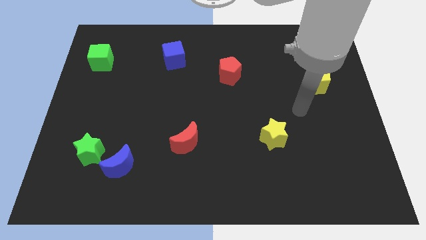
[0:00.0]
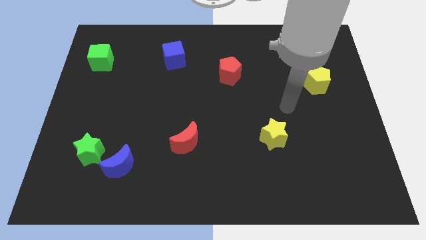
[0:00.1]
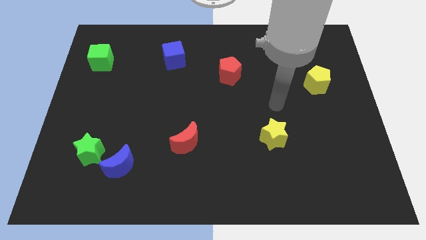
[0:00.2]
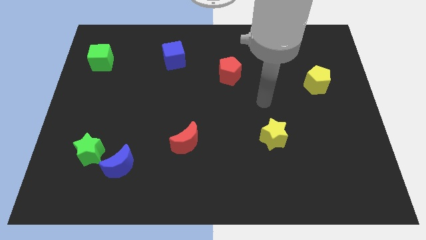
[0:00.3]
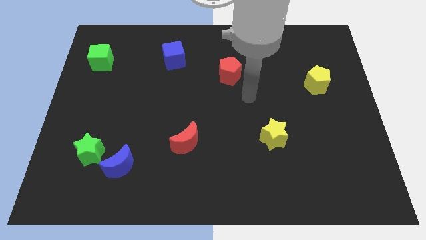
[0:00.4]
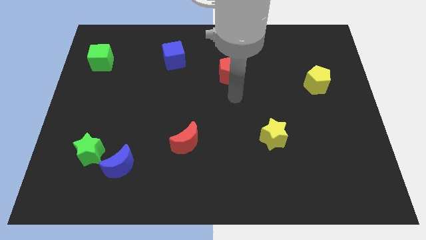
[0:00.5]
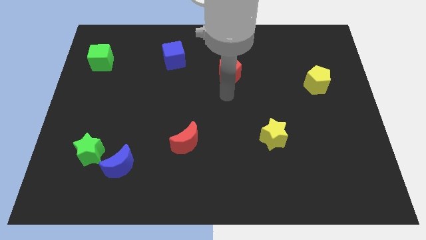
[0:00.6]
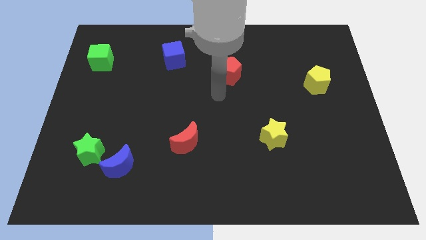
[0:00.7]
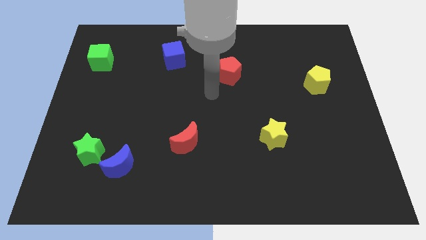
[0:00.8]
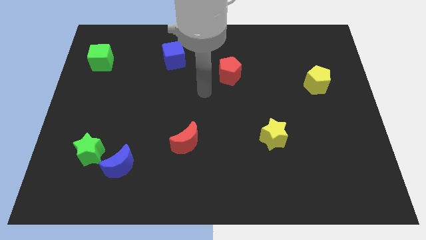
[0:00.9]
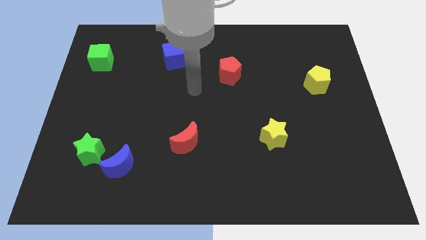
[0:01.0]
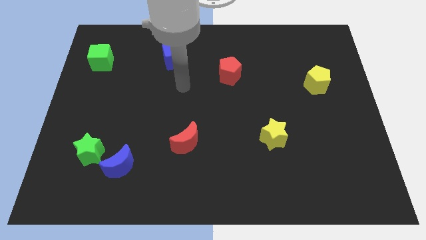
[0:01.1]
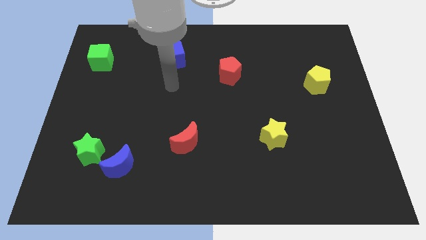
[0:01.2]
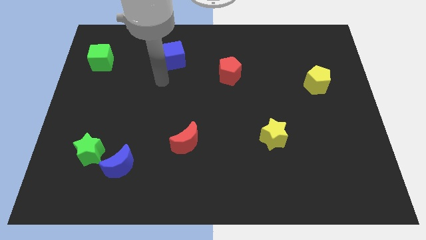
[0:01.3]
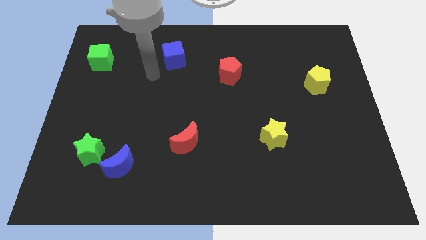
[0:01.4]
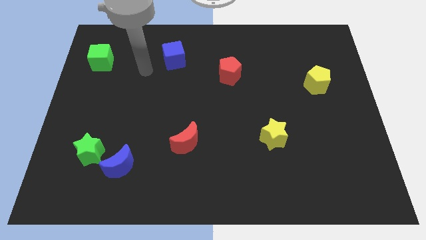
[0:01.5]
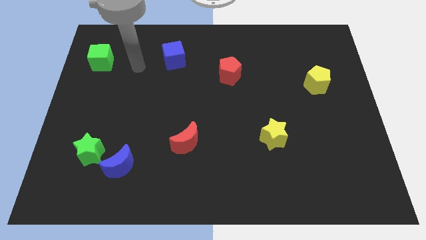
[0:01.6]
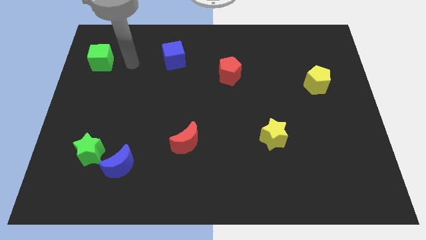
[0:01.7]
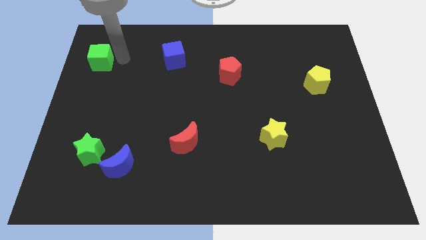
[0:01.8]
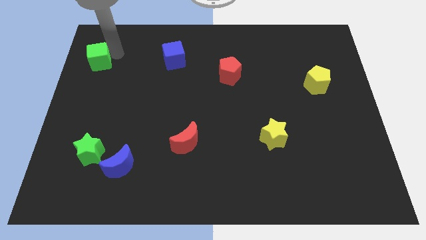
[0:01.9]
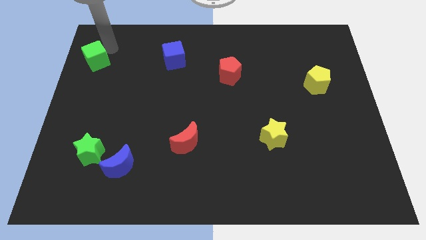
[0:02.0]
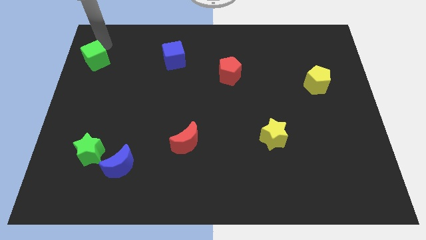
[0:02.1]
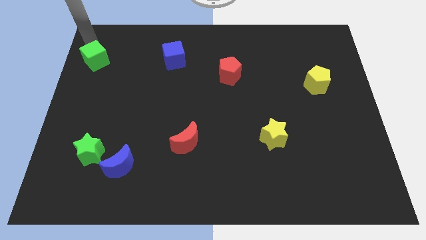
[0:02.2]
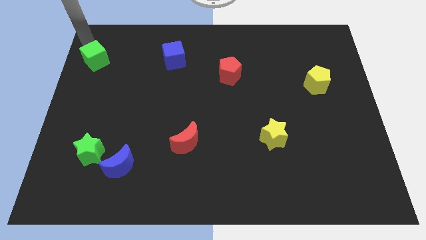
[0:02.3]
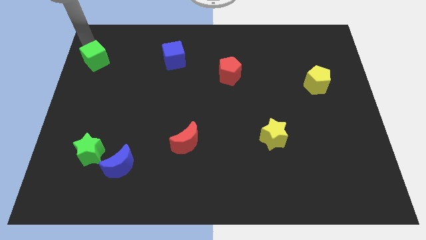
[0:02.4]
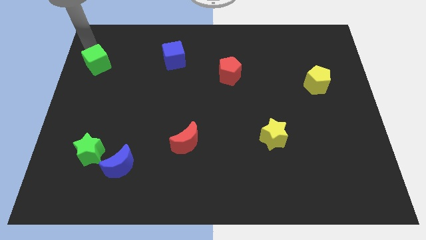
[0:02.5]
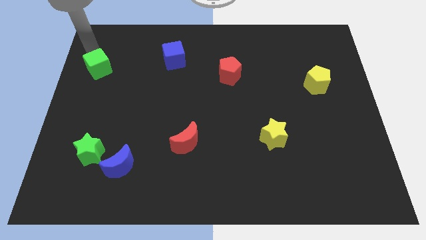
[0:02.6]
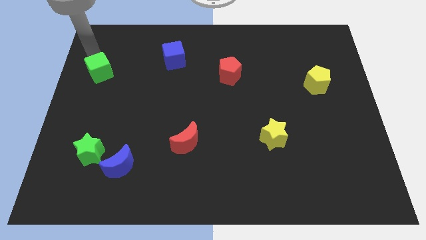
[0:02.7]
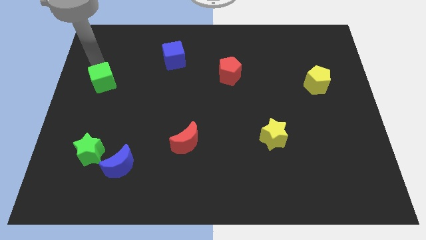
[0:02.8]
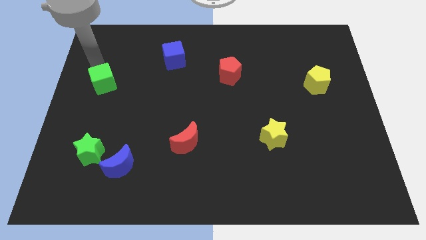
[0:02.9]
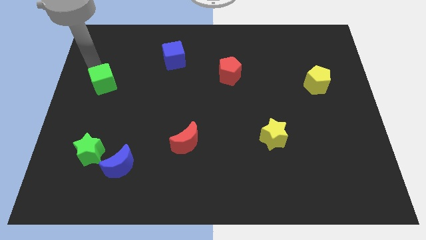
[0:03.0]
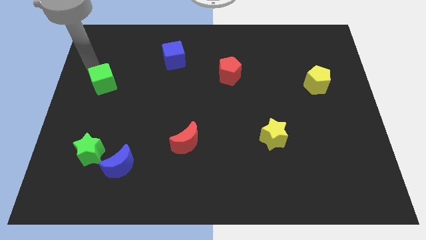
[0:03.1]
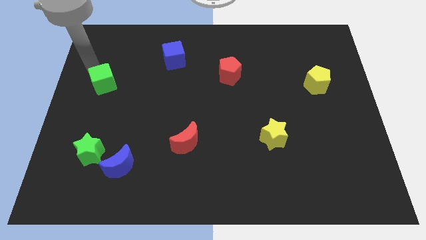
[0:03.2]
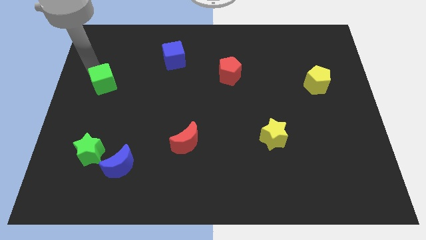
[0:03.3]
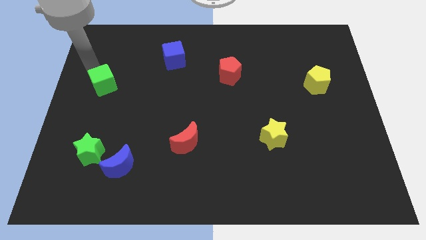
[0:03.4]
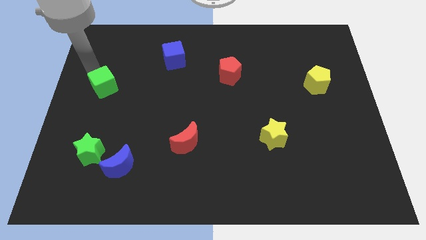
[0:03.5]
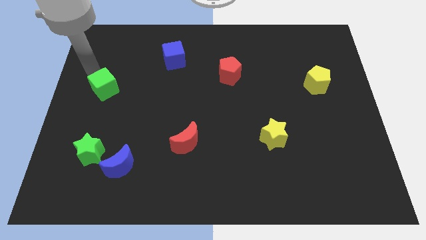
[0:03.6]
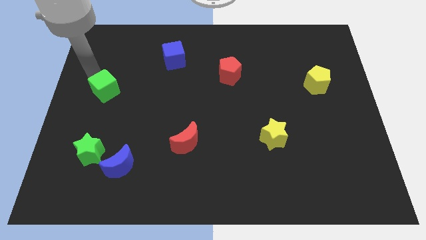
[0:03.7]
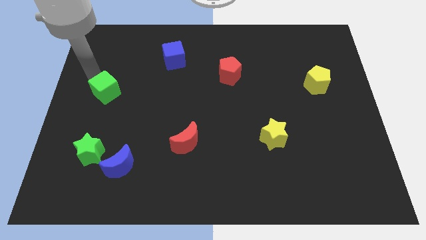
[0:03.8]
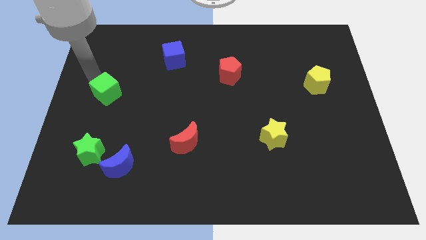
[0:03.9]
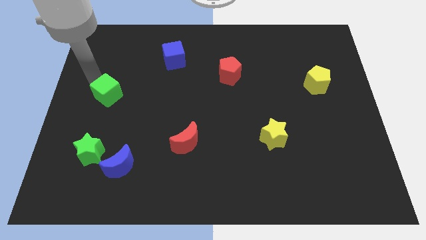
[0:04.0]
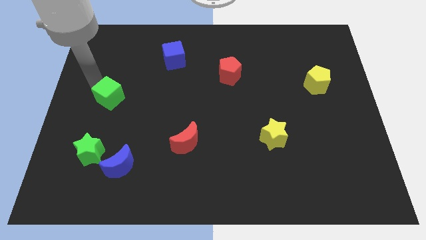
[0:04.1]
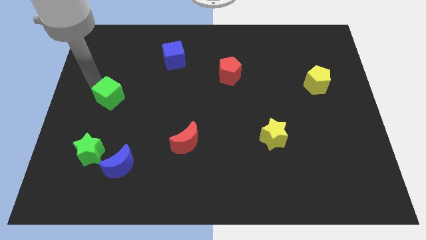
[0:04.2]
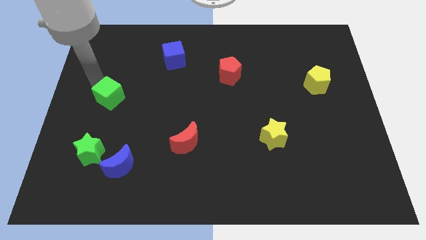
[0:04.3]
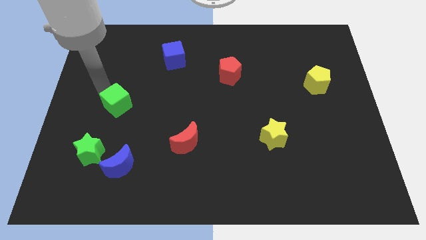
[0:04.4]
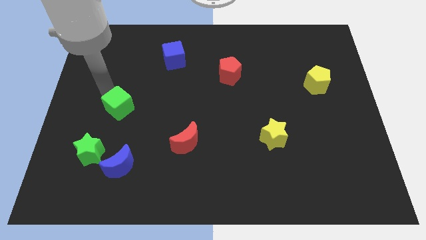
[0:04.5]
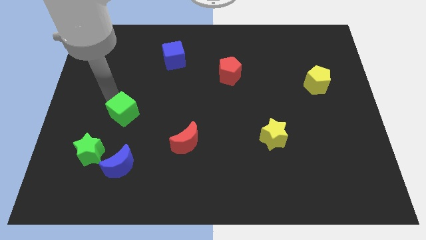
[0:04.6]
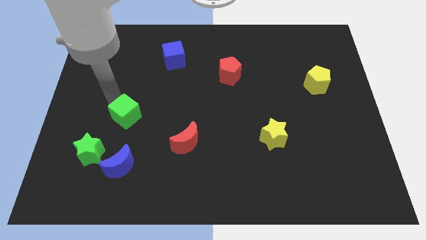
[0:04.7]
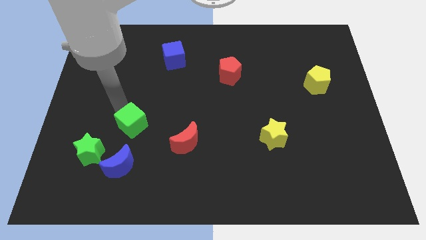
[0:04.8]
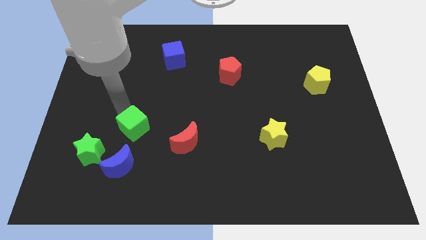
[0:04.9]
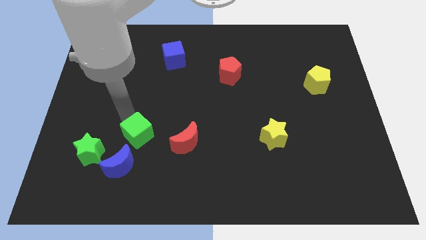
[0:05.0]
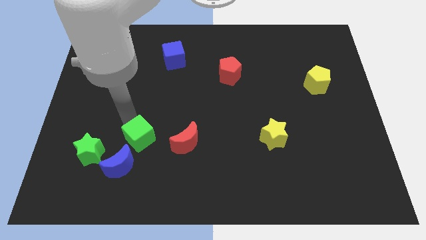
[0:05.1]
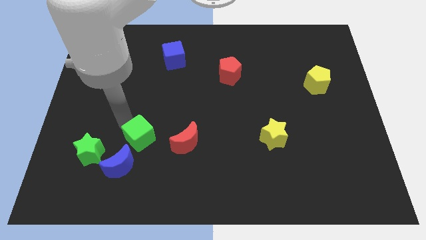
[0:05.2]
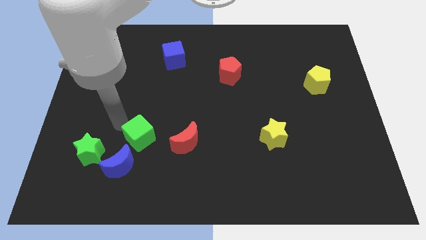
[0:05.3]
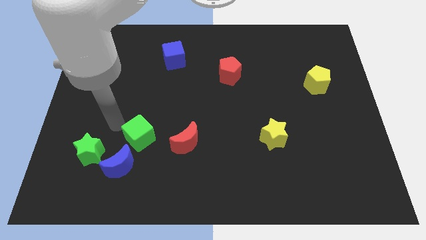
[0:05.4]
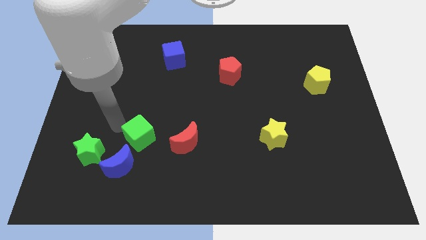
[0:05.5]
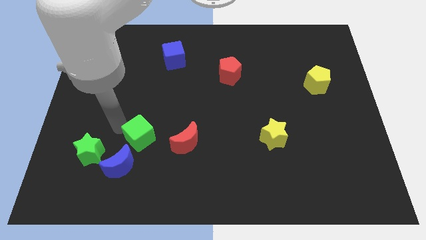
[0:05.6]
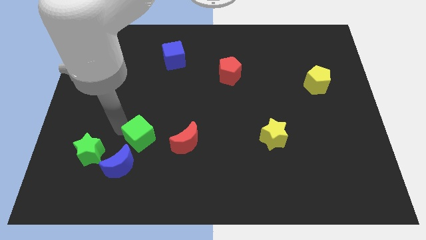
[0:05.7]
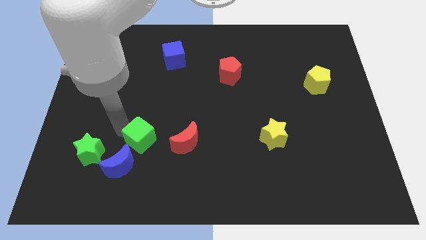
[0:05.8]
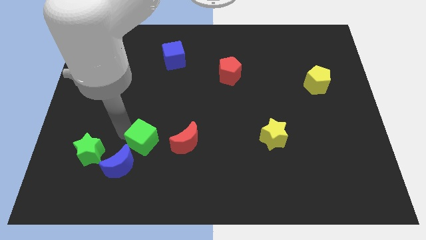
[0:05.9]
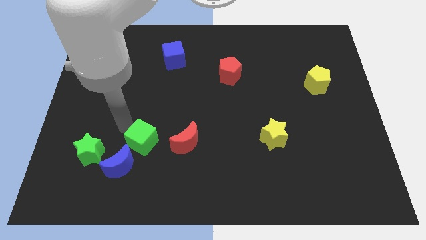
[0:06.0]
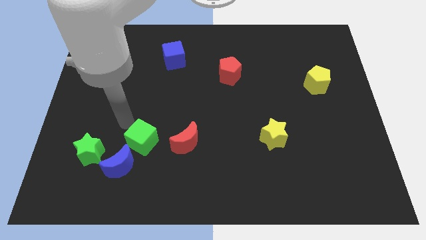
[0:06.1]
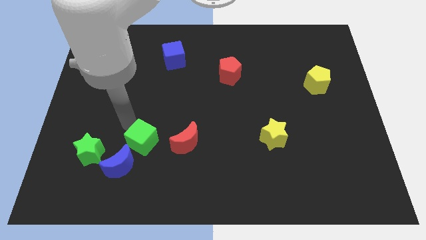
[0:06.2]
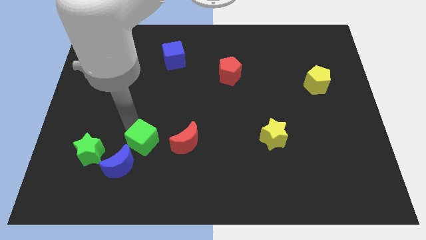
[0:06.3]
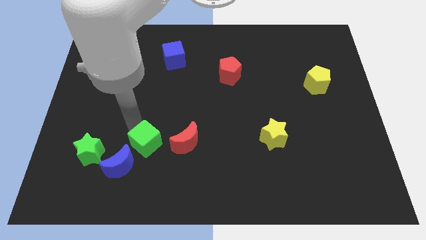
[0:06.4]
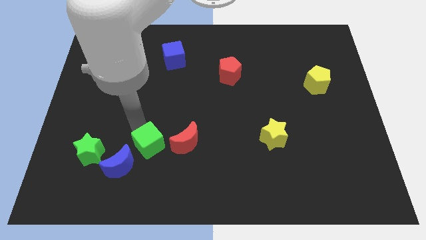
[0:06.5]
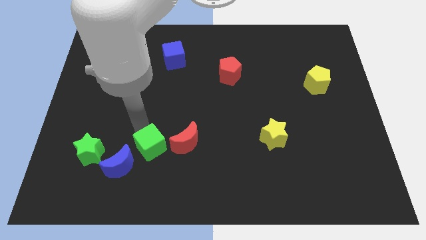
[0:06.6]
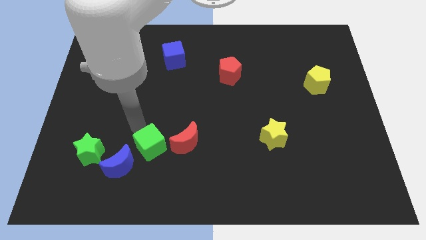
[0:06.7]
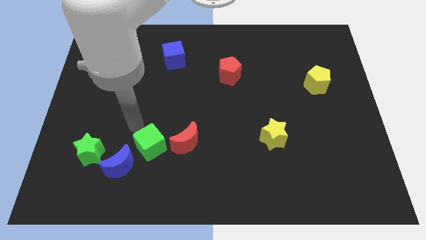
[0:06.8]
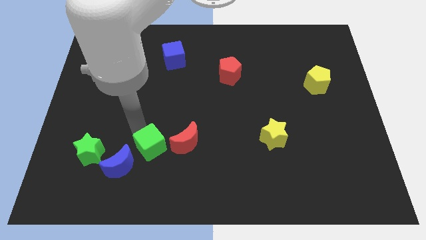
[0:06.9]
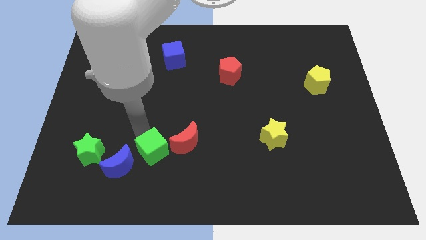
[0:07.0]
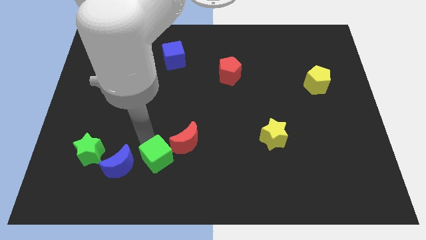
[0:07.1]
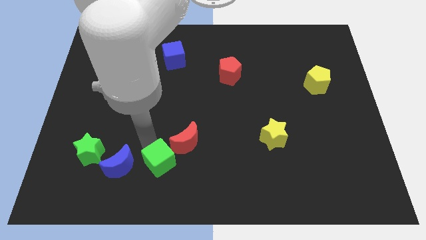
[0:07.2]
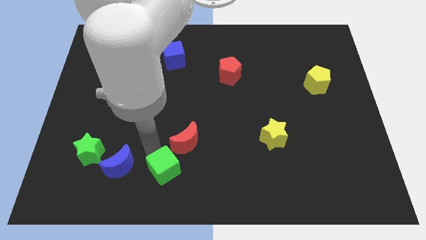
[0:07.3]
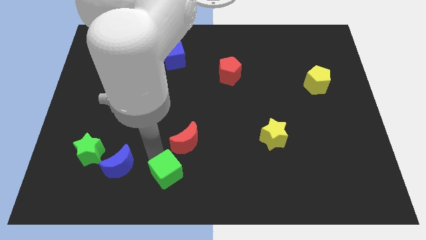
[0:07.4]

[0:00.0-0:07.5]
slide the green cube to the bottom
